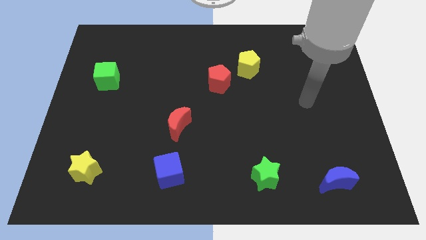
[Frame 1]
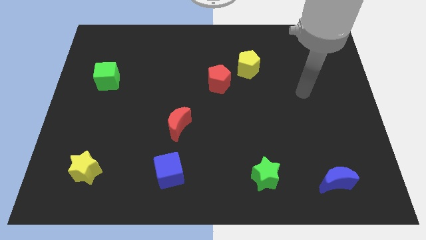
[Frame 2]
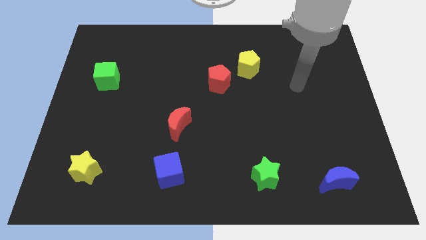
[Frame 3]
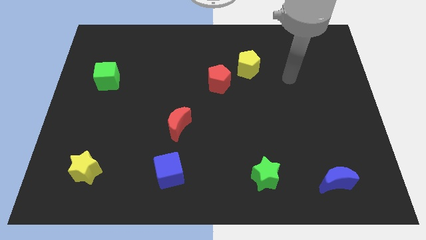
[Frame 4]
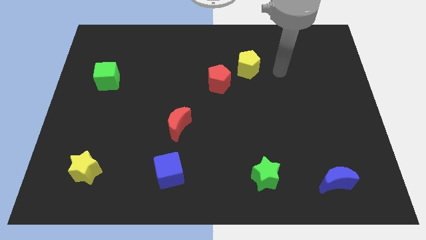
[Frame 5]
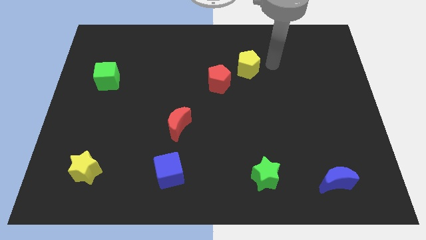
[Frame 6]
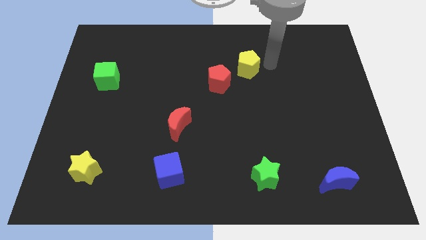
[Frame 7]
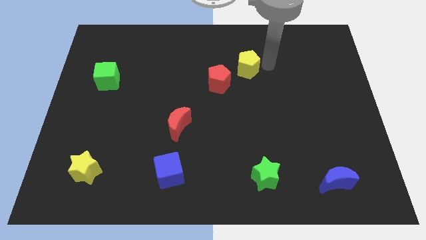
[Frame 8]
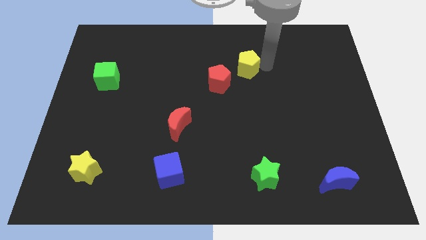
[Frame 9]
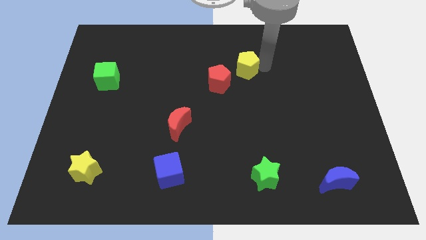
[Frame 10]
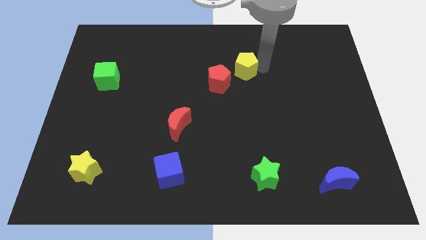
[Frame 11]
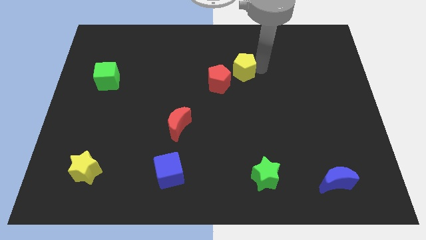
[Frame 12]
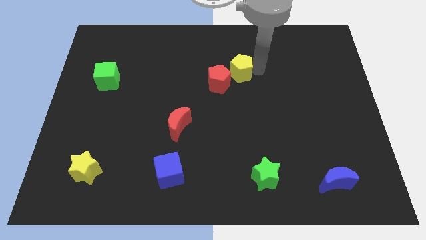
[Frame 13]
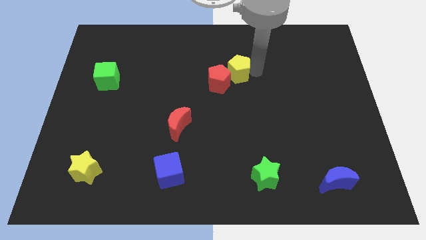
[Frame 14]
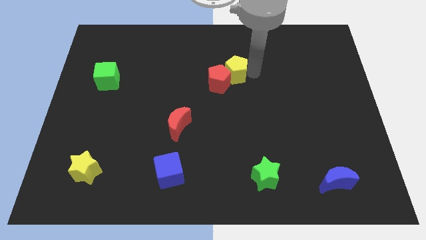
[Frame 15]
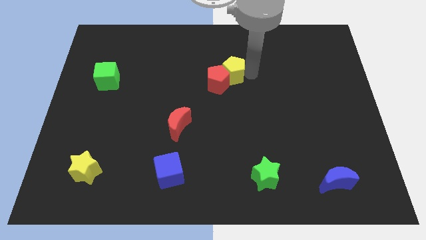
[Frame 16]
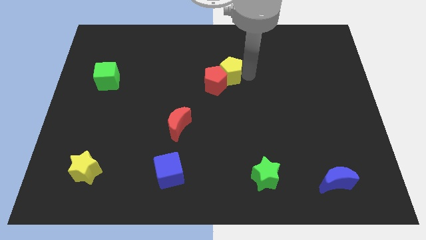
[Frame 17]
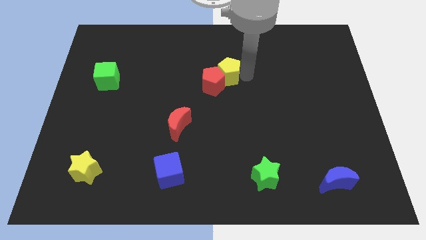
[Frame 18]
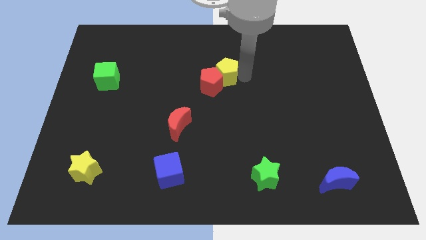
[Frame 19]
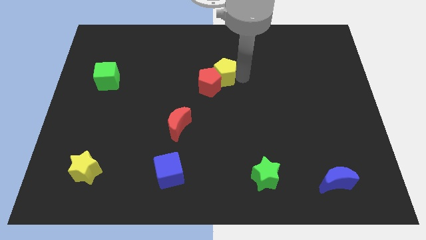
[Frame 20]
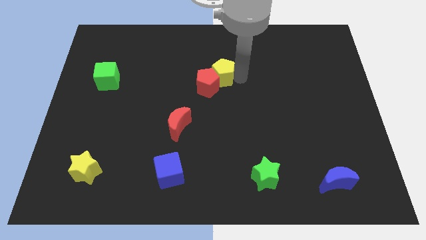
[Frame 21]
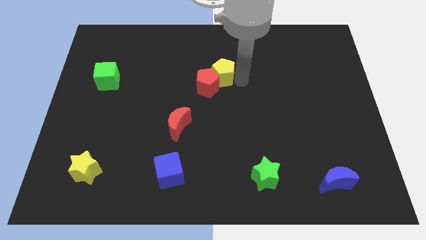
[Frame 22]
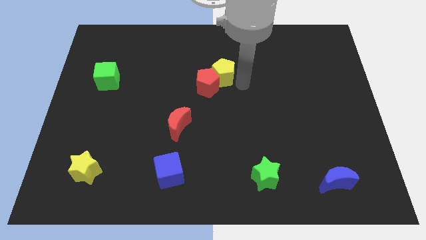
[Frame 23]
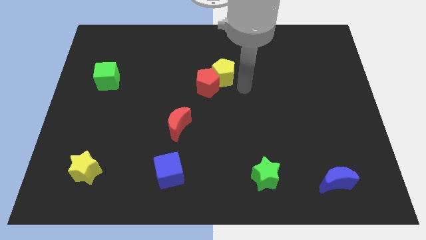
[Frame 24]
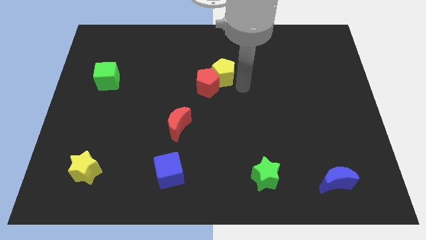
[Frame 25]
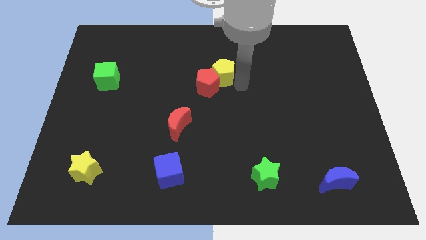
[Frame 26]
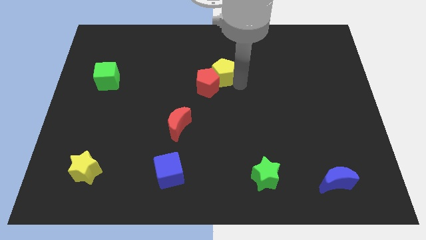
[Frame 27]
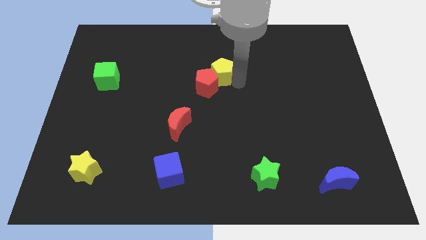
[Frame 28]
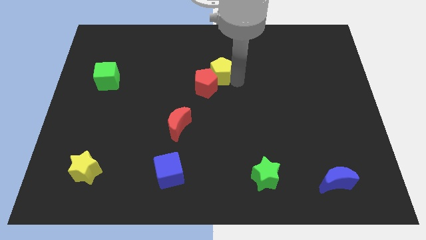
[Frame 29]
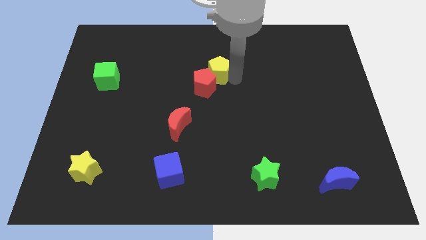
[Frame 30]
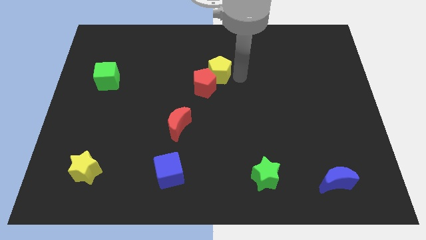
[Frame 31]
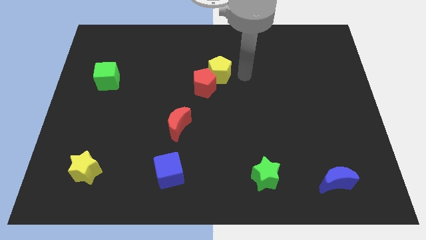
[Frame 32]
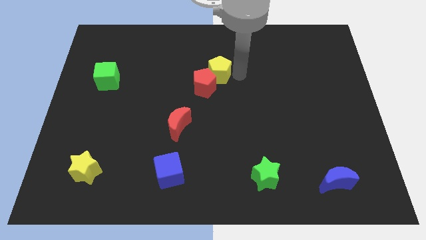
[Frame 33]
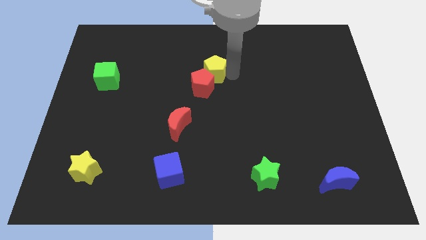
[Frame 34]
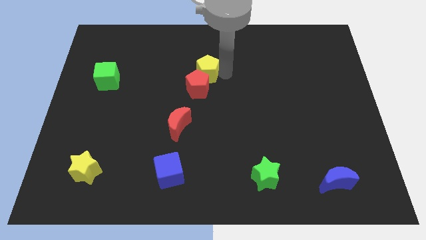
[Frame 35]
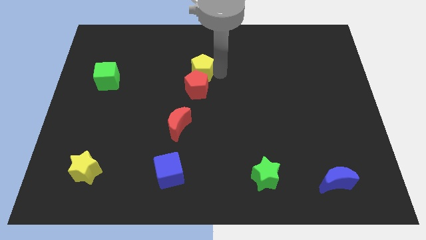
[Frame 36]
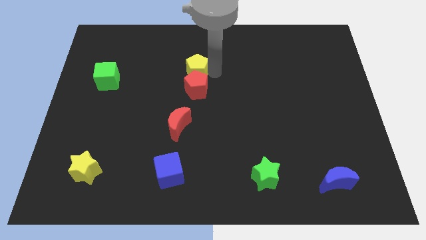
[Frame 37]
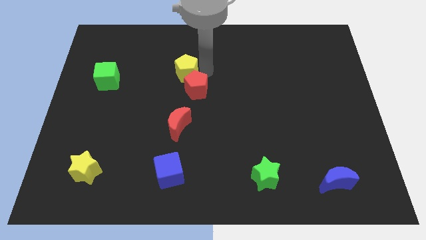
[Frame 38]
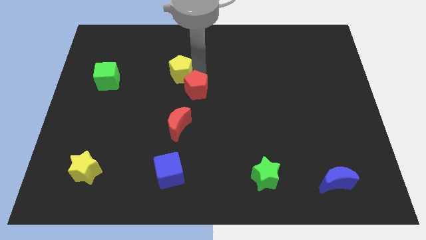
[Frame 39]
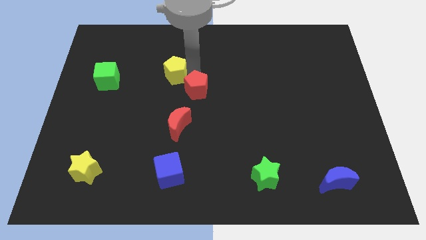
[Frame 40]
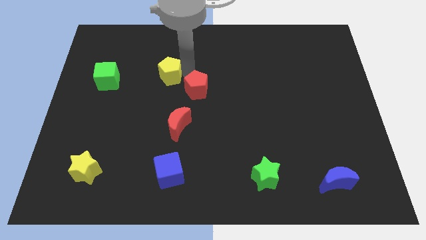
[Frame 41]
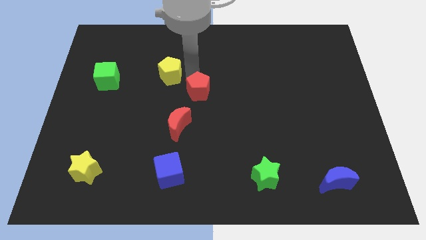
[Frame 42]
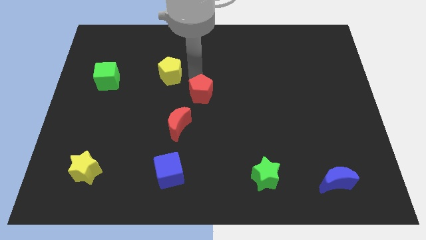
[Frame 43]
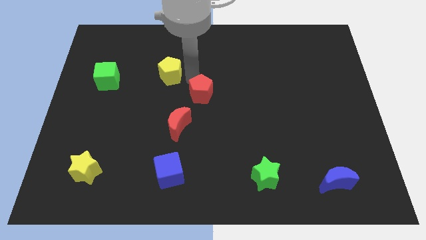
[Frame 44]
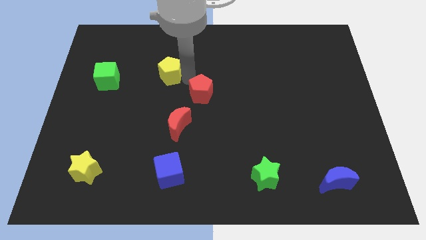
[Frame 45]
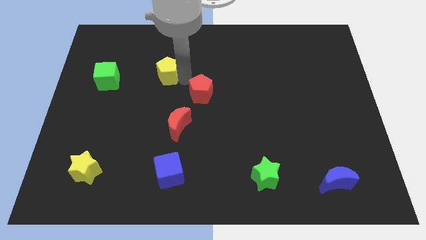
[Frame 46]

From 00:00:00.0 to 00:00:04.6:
push the yellow pentagon to the left

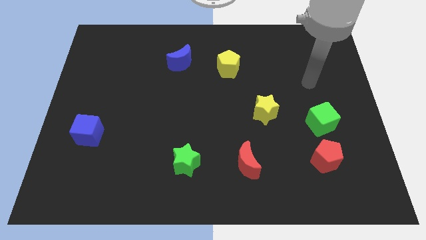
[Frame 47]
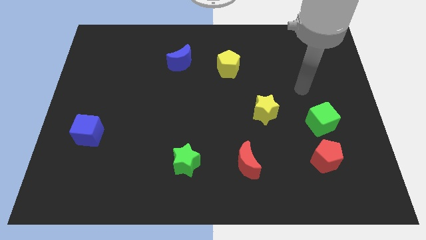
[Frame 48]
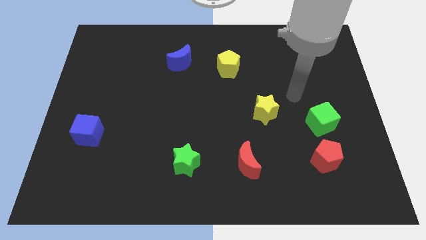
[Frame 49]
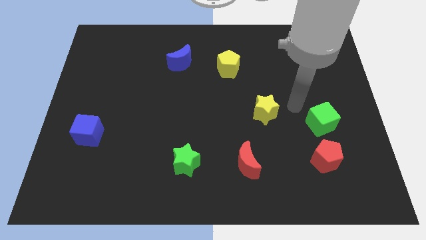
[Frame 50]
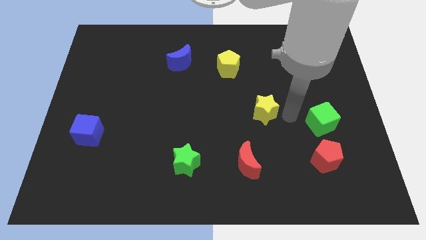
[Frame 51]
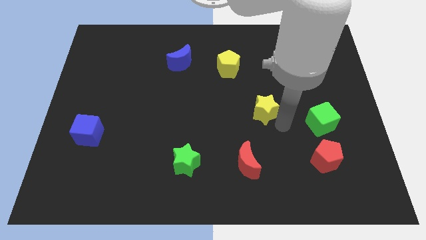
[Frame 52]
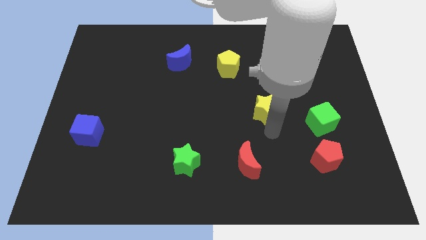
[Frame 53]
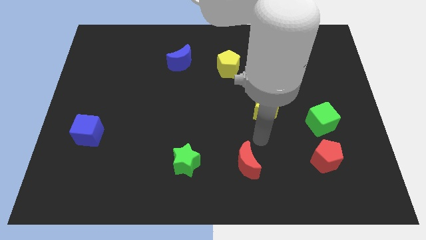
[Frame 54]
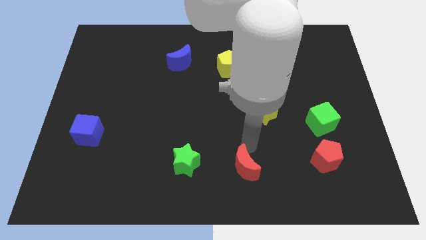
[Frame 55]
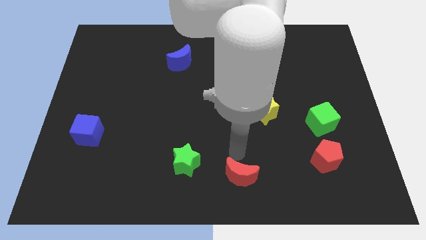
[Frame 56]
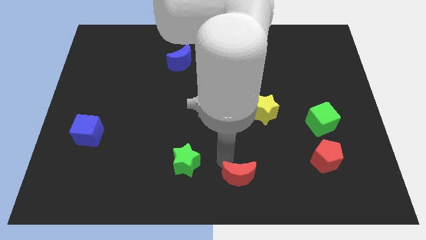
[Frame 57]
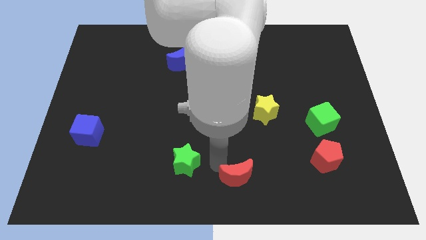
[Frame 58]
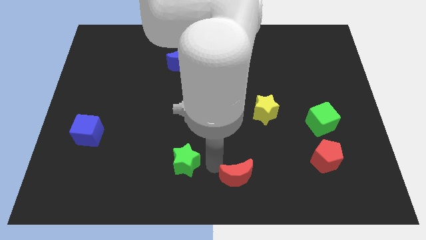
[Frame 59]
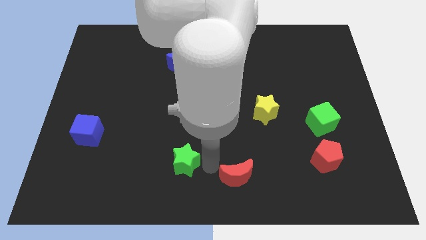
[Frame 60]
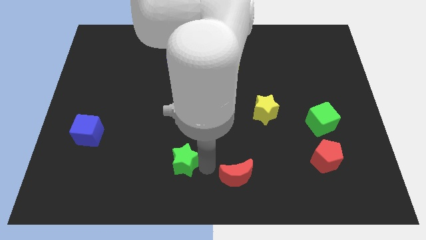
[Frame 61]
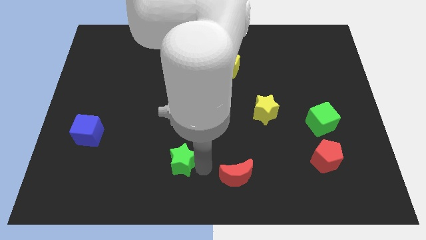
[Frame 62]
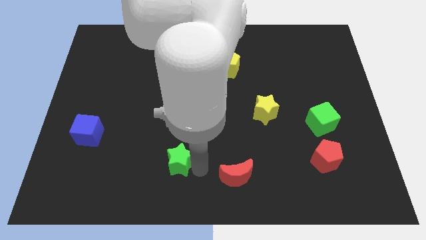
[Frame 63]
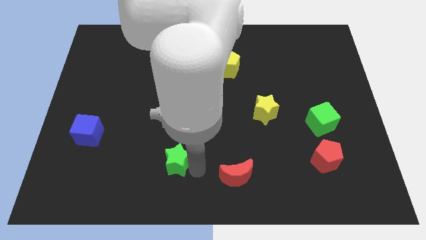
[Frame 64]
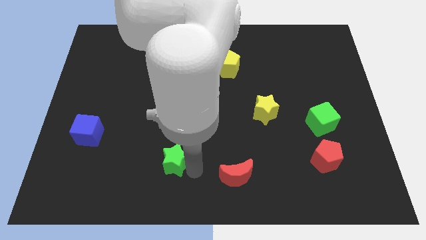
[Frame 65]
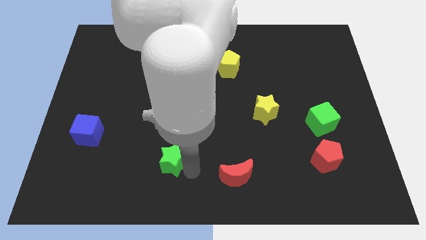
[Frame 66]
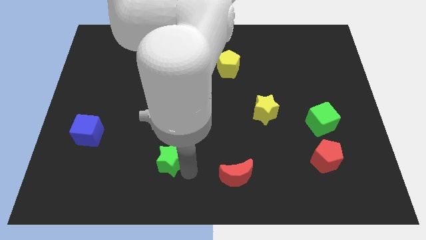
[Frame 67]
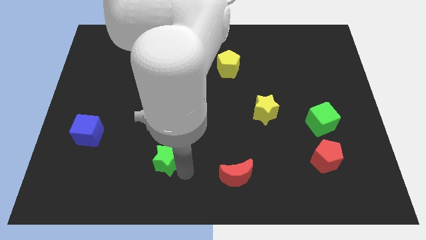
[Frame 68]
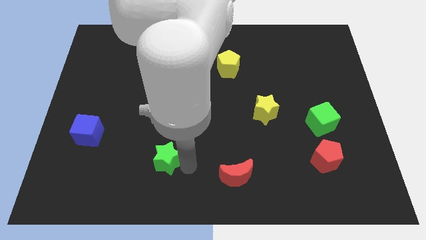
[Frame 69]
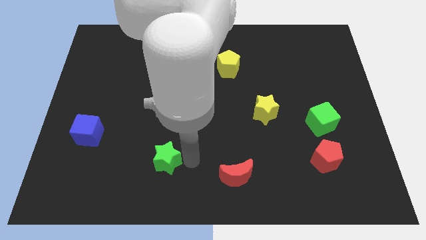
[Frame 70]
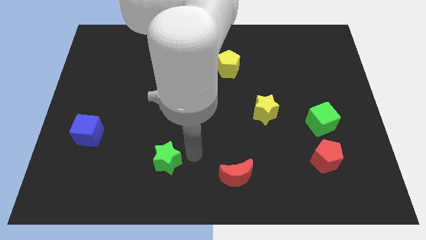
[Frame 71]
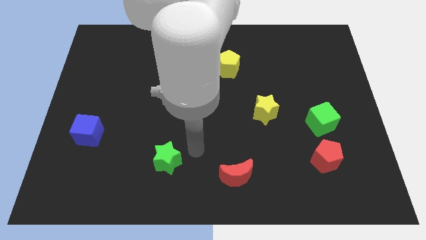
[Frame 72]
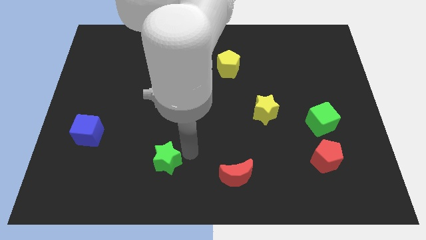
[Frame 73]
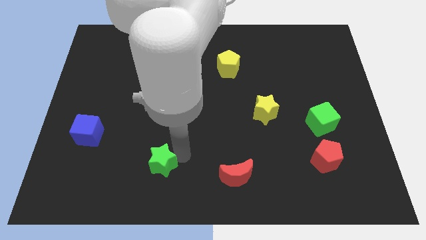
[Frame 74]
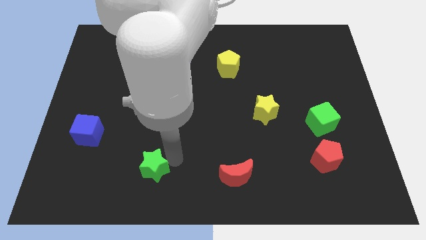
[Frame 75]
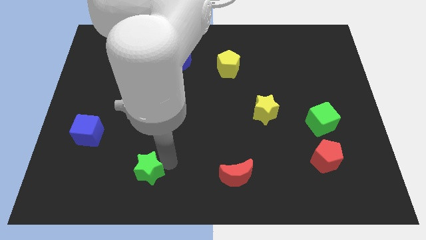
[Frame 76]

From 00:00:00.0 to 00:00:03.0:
slide the green star a bit left

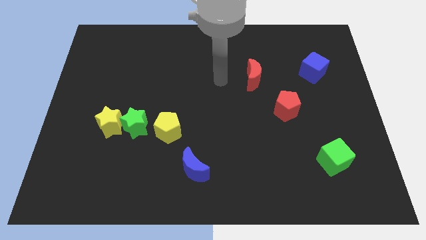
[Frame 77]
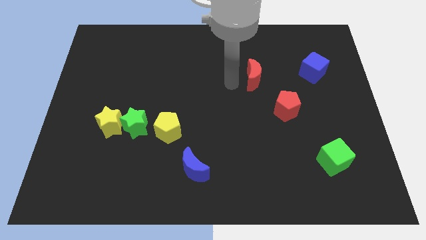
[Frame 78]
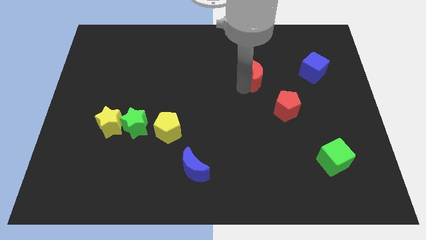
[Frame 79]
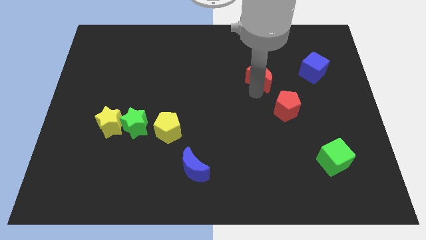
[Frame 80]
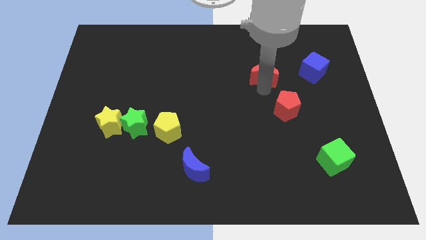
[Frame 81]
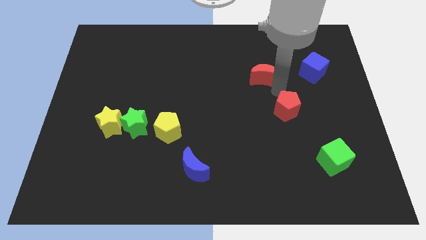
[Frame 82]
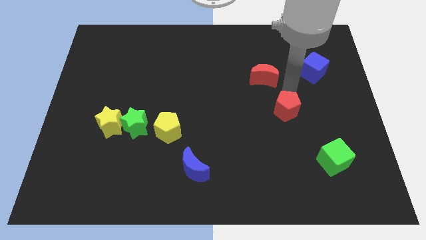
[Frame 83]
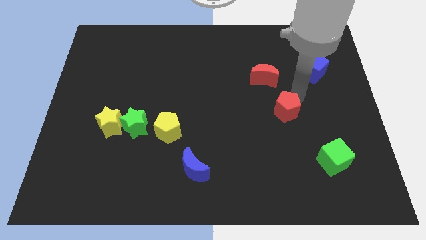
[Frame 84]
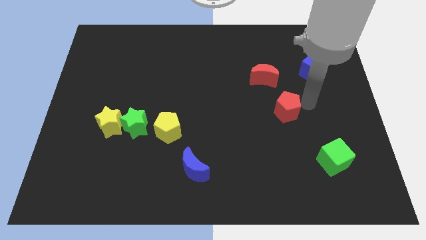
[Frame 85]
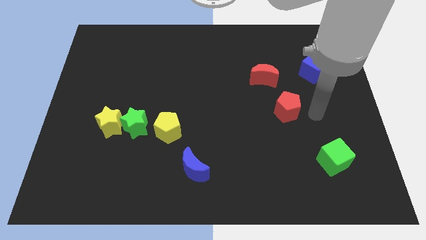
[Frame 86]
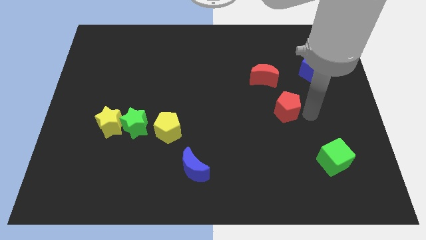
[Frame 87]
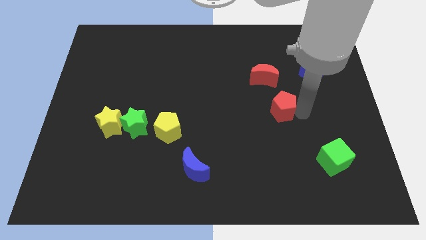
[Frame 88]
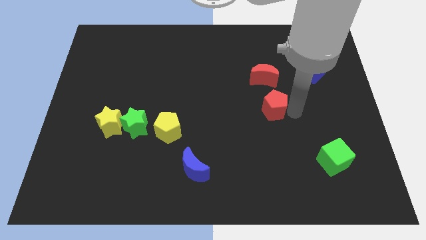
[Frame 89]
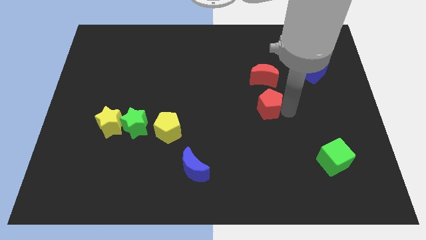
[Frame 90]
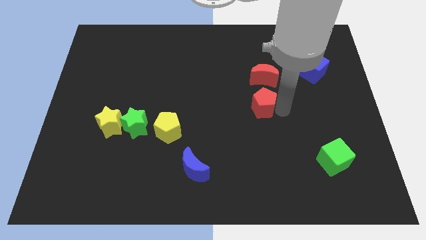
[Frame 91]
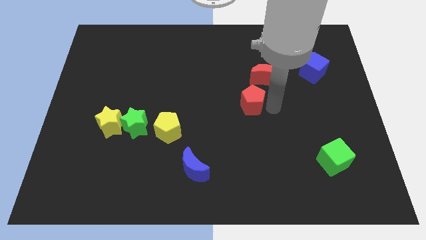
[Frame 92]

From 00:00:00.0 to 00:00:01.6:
slightly slide the red pentagon to the left
